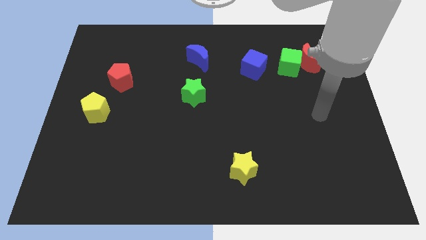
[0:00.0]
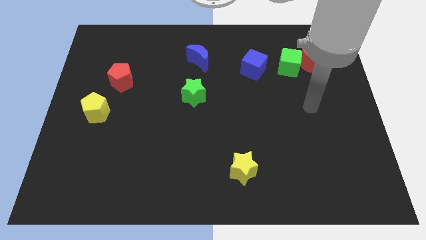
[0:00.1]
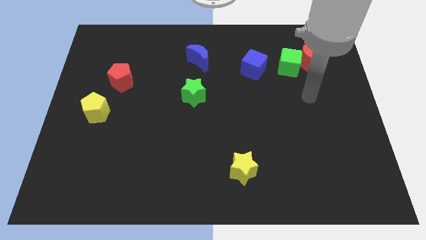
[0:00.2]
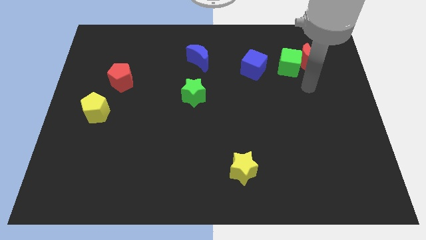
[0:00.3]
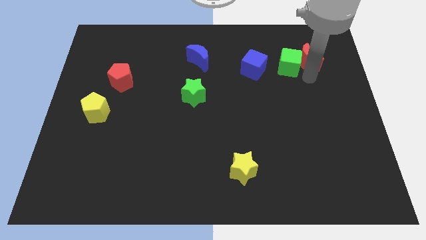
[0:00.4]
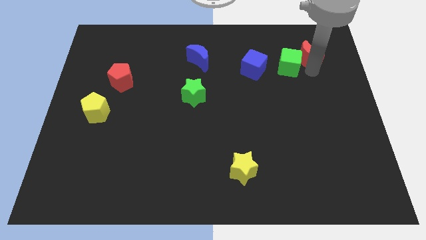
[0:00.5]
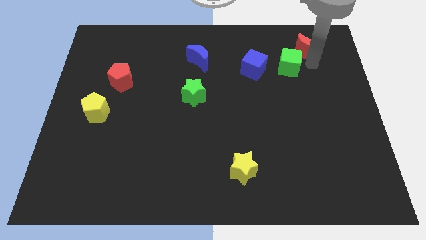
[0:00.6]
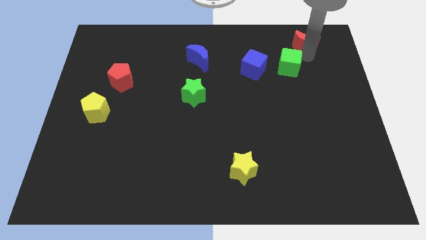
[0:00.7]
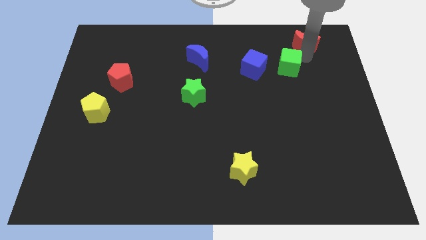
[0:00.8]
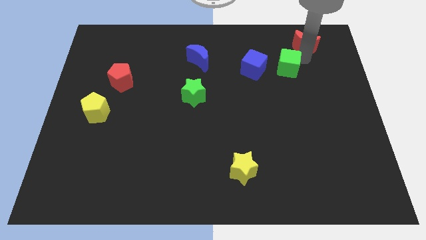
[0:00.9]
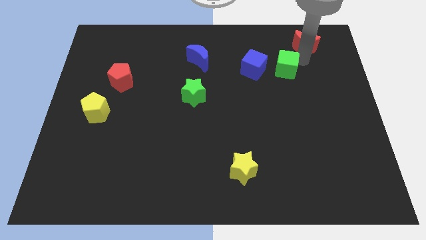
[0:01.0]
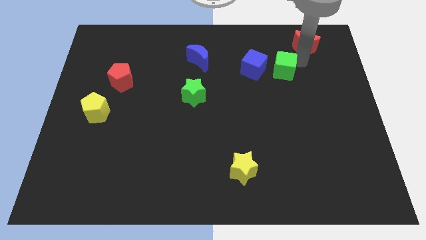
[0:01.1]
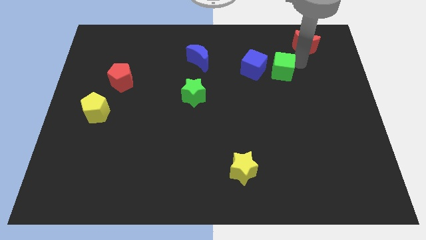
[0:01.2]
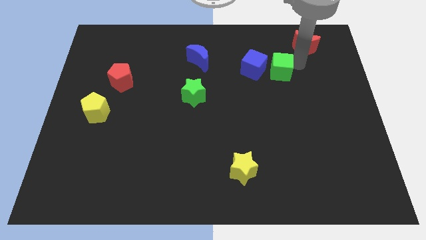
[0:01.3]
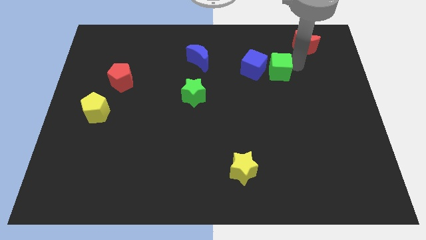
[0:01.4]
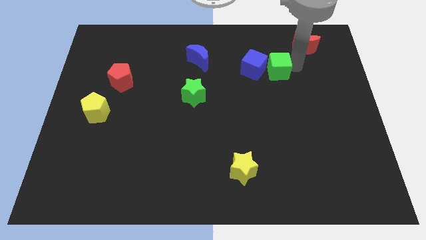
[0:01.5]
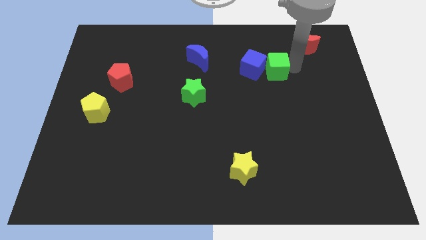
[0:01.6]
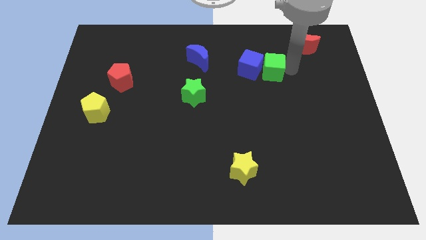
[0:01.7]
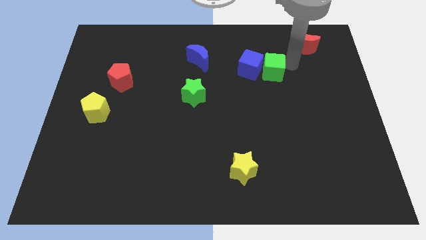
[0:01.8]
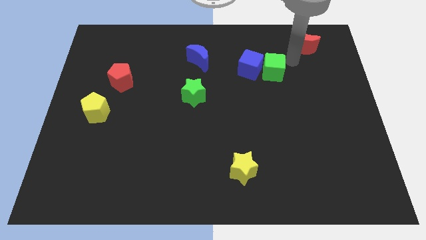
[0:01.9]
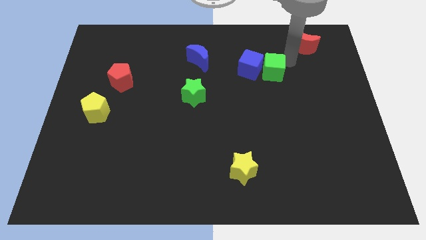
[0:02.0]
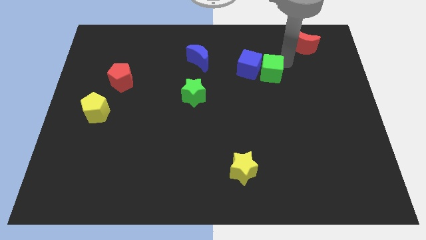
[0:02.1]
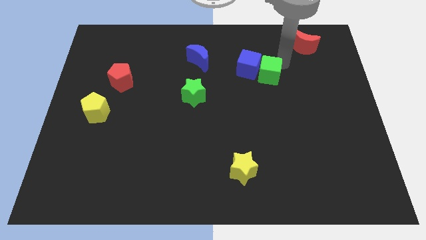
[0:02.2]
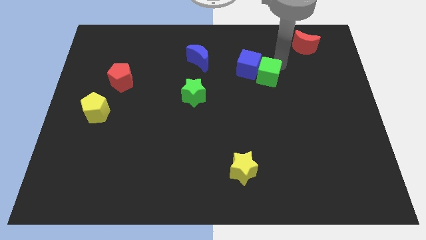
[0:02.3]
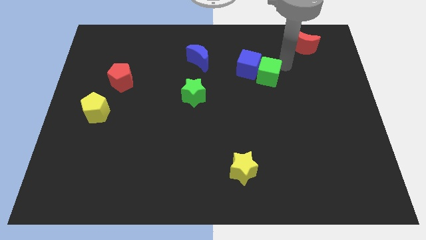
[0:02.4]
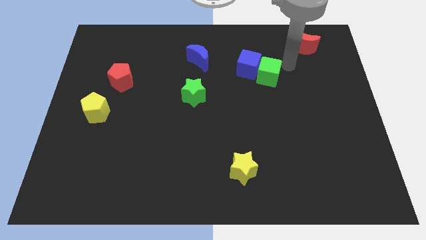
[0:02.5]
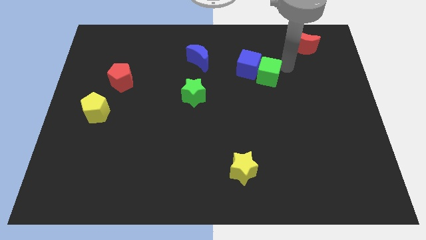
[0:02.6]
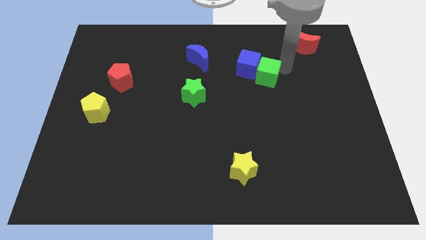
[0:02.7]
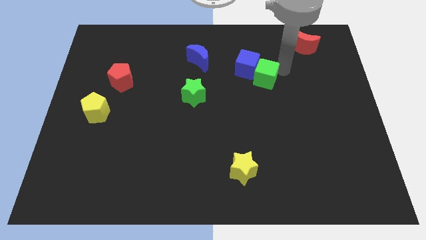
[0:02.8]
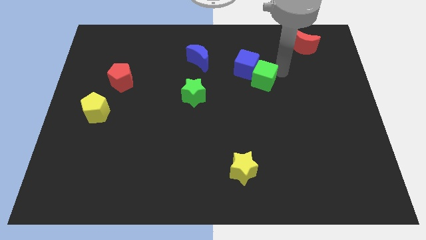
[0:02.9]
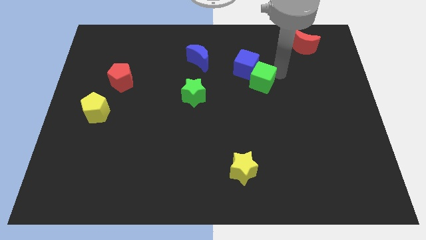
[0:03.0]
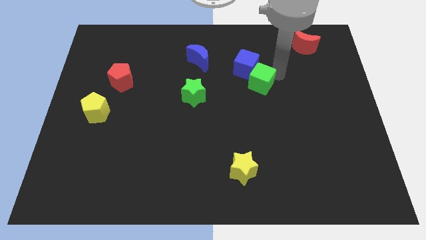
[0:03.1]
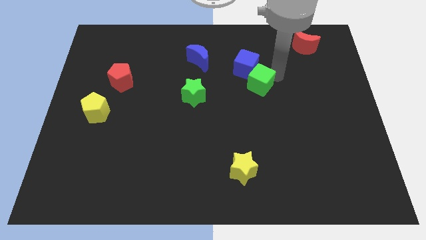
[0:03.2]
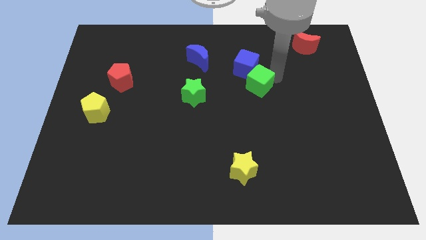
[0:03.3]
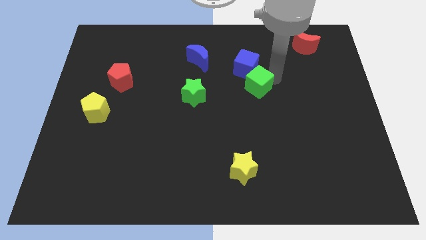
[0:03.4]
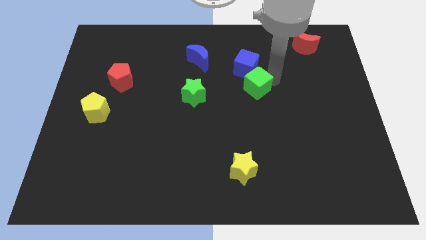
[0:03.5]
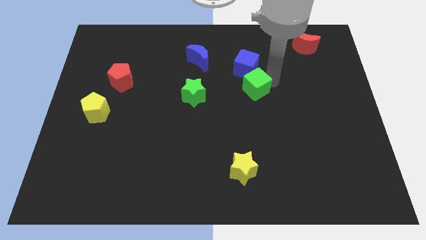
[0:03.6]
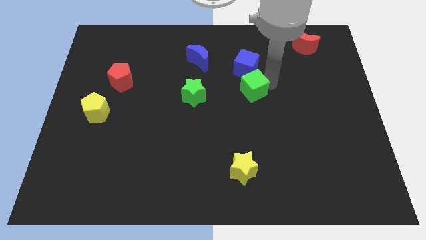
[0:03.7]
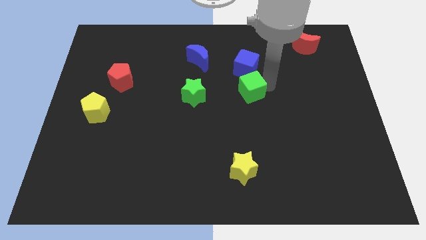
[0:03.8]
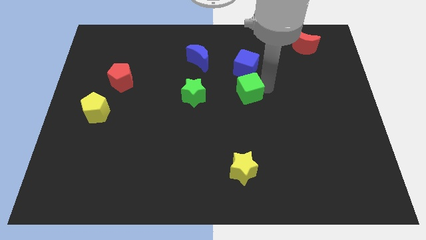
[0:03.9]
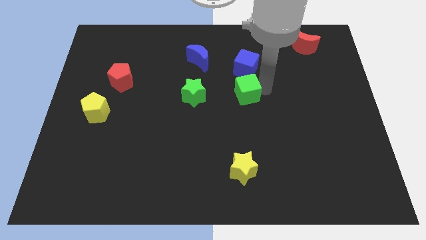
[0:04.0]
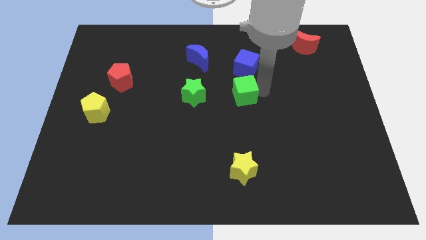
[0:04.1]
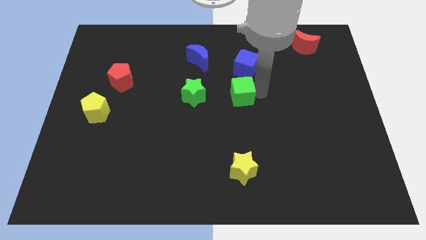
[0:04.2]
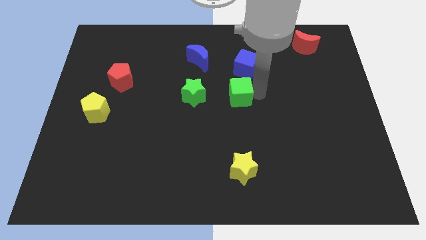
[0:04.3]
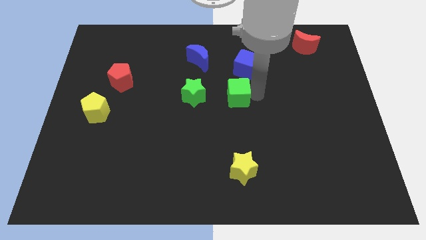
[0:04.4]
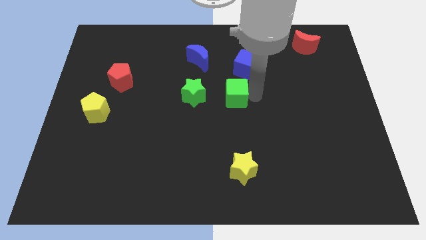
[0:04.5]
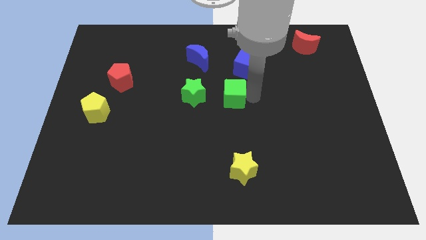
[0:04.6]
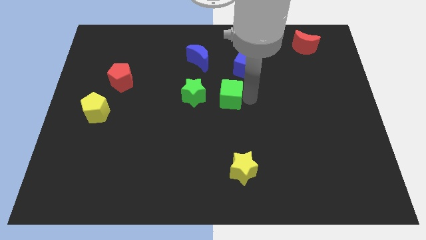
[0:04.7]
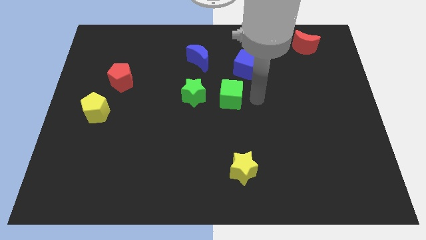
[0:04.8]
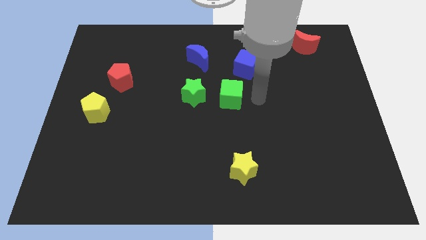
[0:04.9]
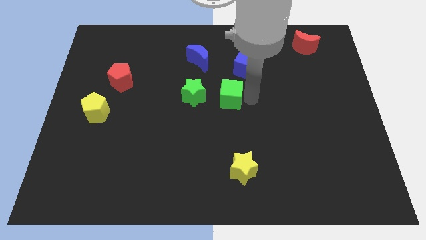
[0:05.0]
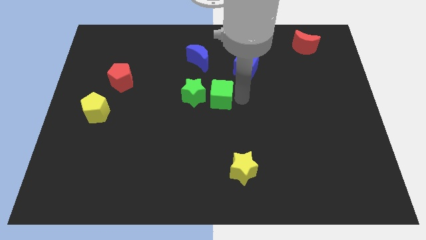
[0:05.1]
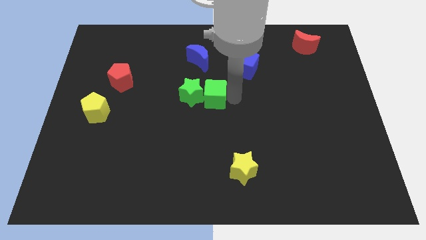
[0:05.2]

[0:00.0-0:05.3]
slide the green cube to the green star

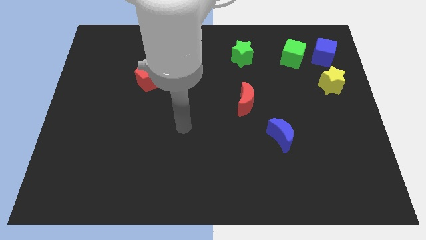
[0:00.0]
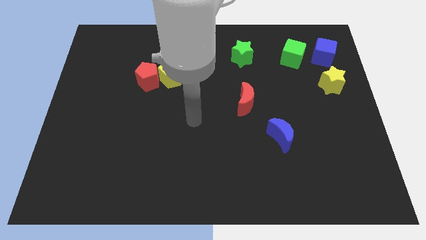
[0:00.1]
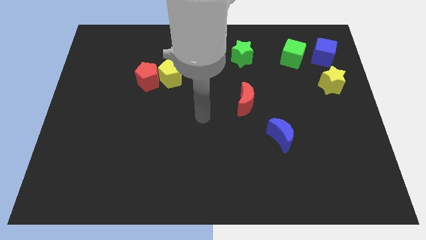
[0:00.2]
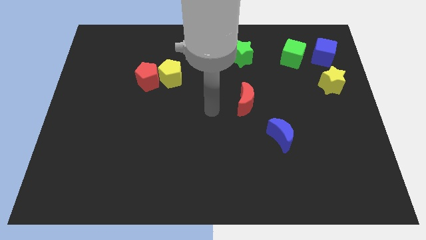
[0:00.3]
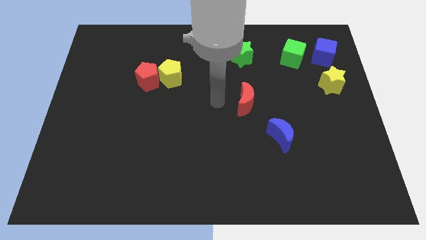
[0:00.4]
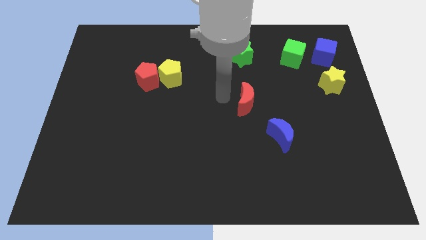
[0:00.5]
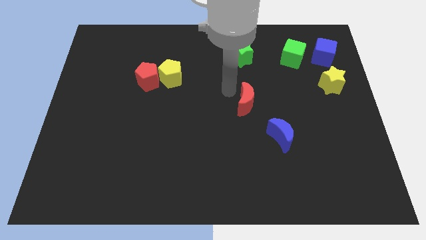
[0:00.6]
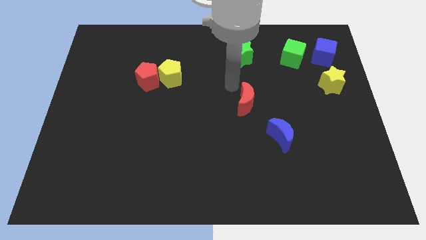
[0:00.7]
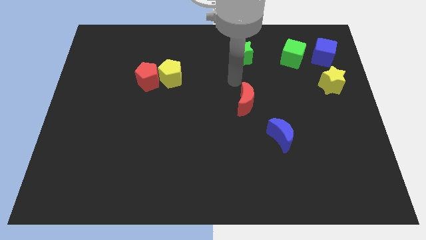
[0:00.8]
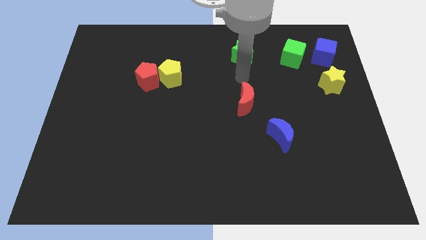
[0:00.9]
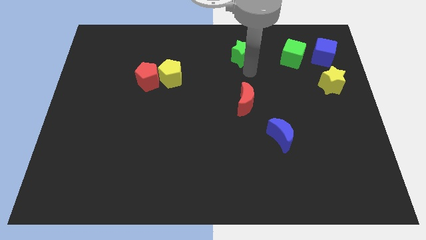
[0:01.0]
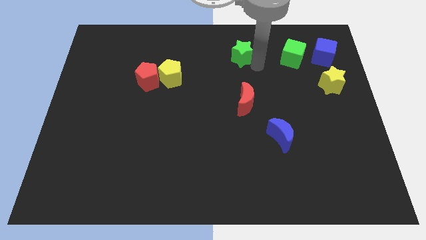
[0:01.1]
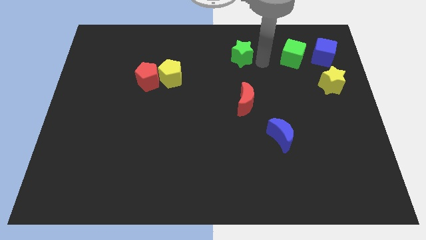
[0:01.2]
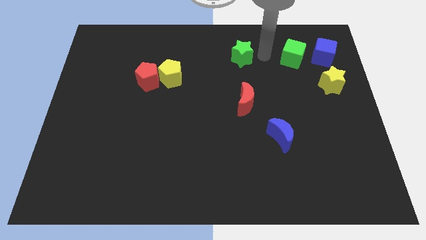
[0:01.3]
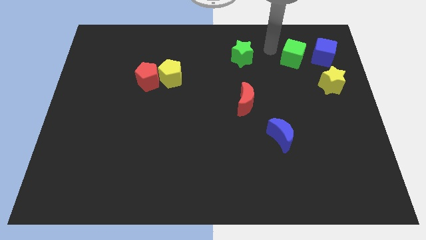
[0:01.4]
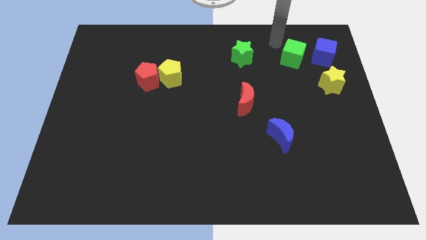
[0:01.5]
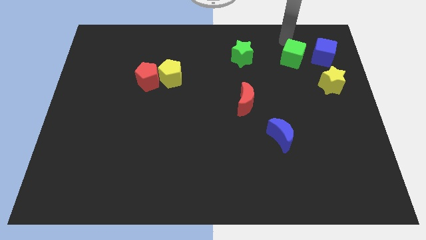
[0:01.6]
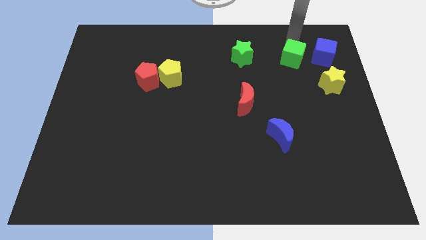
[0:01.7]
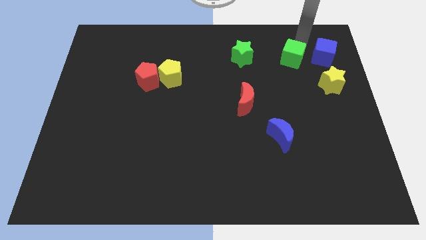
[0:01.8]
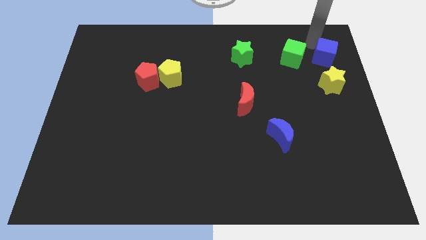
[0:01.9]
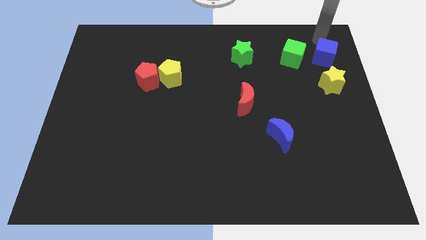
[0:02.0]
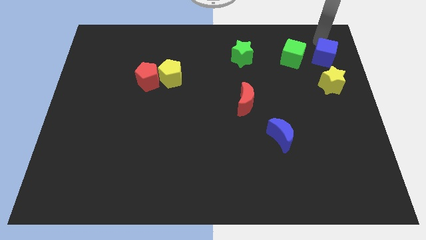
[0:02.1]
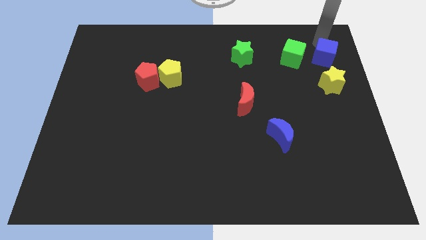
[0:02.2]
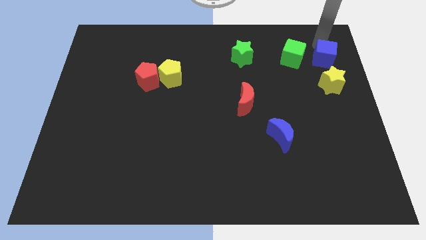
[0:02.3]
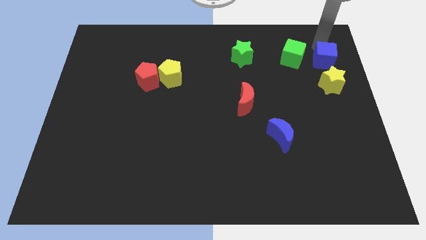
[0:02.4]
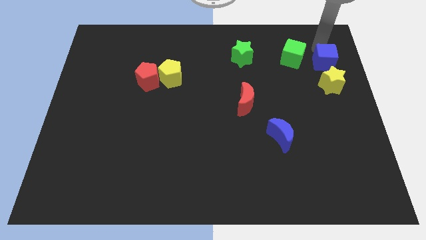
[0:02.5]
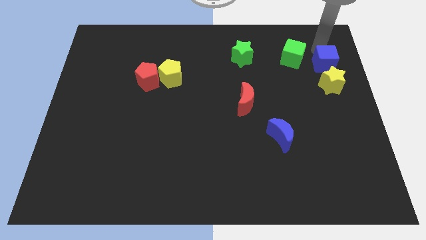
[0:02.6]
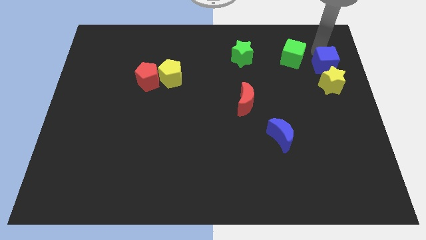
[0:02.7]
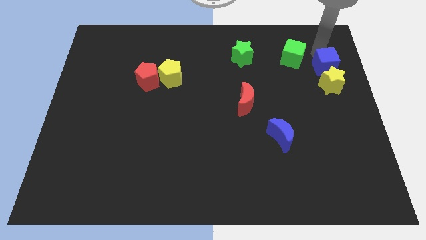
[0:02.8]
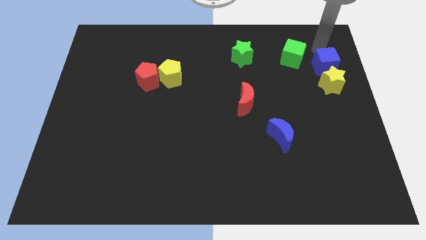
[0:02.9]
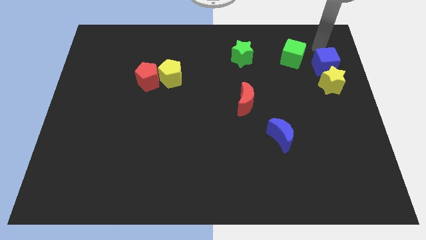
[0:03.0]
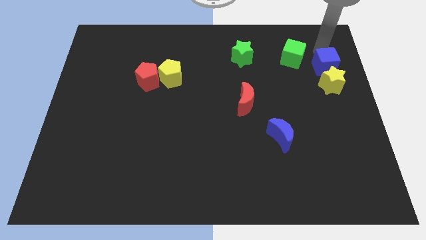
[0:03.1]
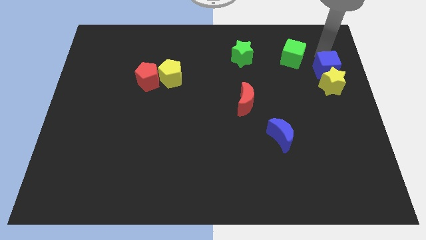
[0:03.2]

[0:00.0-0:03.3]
push the blue cube to the yellow star
